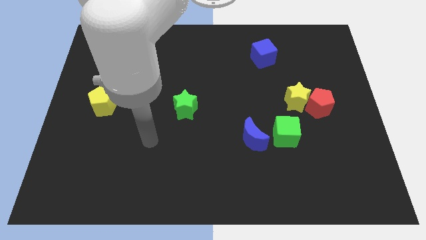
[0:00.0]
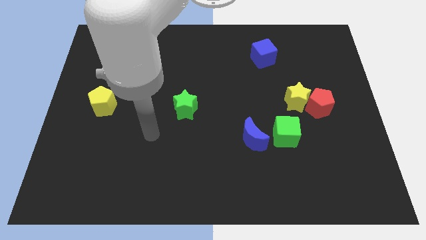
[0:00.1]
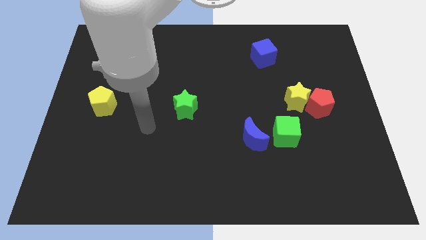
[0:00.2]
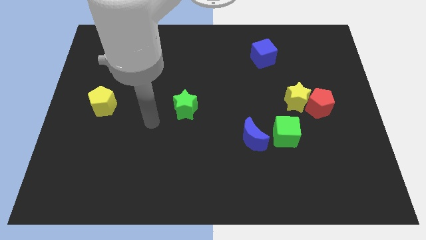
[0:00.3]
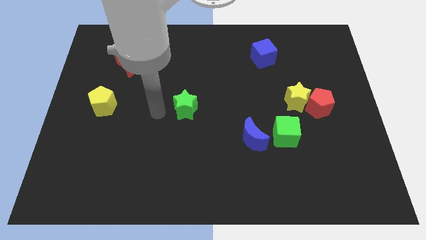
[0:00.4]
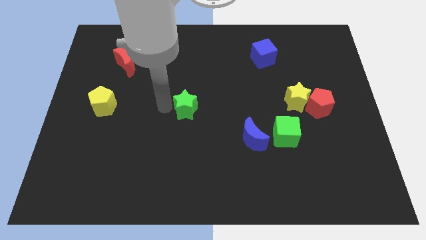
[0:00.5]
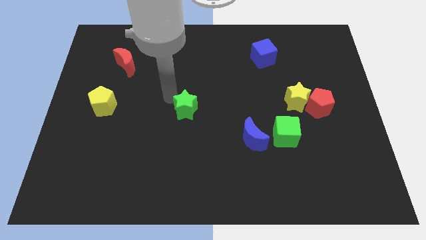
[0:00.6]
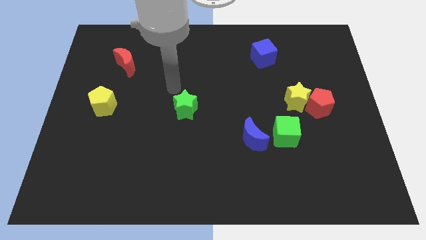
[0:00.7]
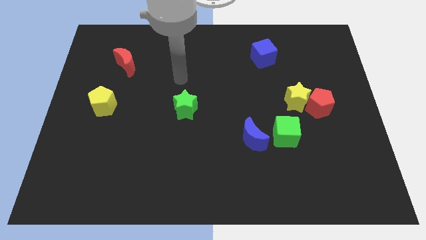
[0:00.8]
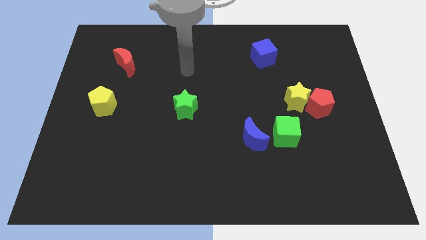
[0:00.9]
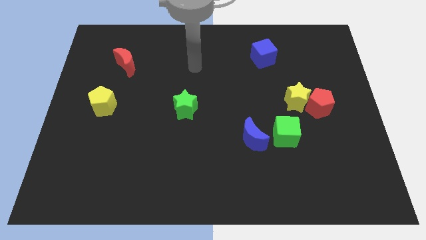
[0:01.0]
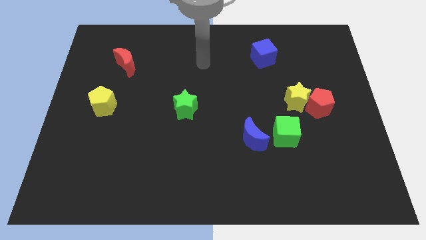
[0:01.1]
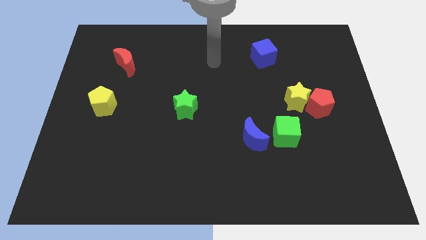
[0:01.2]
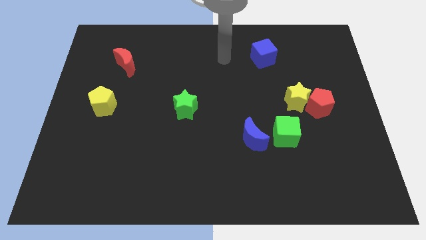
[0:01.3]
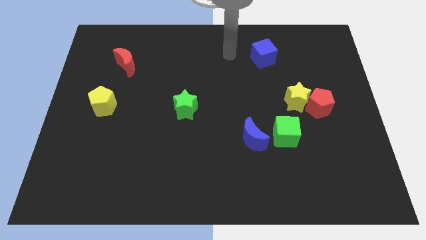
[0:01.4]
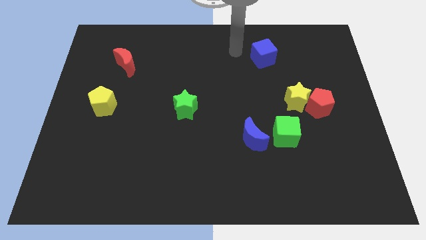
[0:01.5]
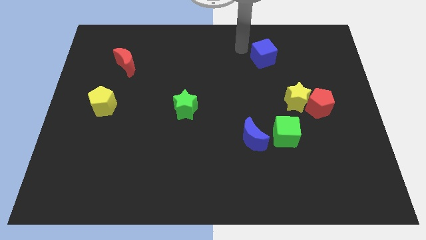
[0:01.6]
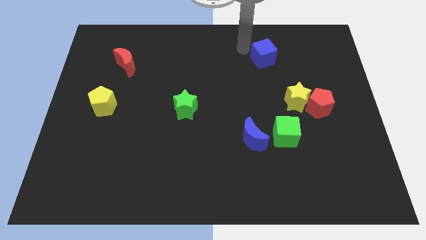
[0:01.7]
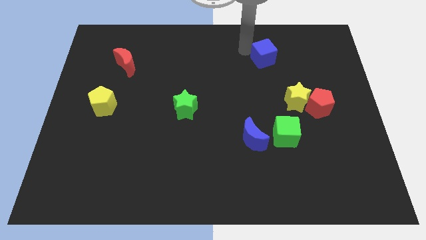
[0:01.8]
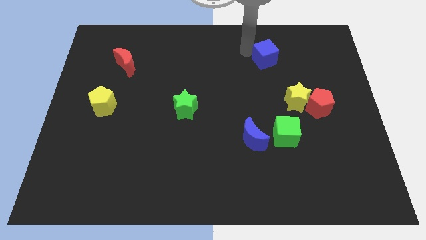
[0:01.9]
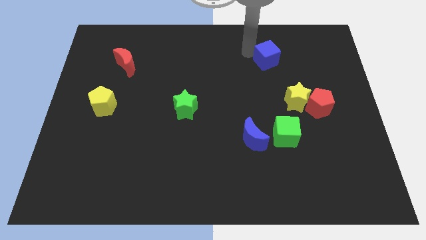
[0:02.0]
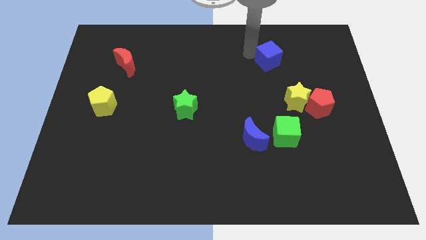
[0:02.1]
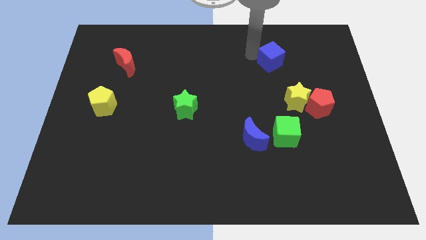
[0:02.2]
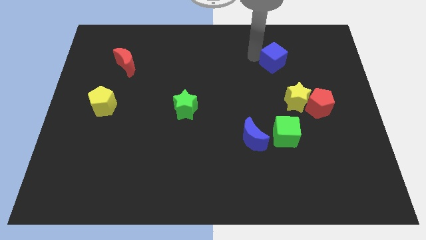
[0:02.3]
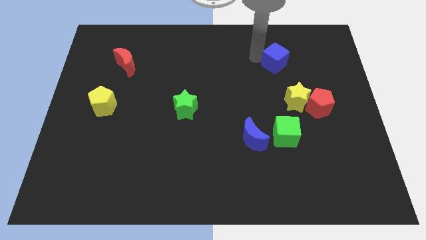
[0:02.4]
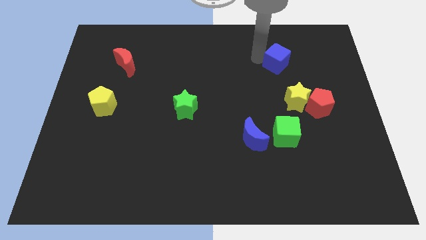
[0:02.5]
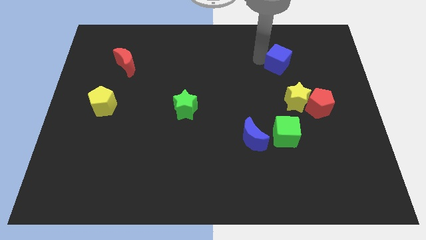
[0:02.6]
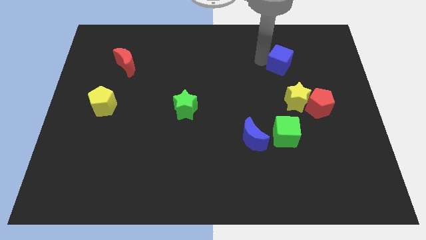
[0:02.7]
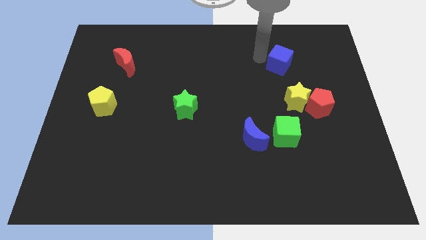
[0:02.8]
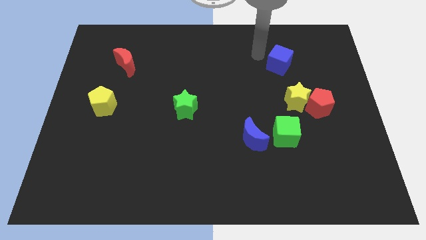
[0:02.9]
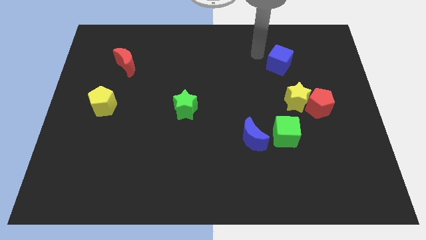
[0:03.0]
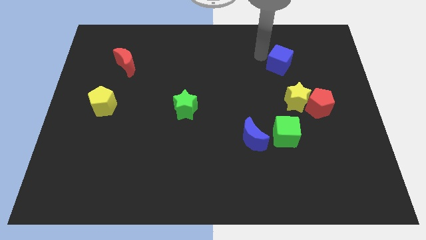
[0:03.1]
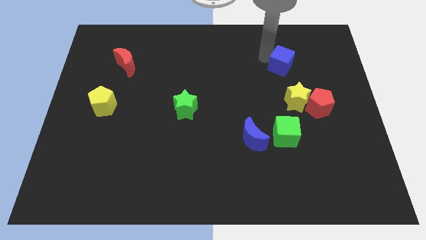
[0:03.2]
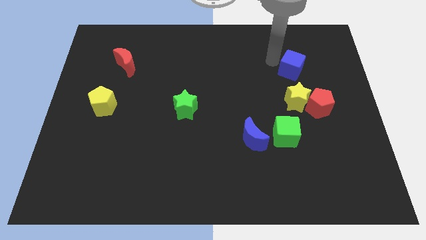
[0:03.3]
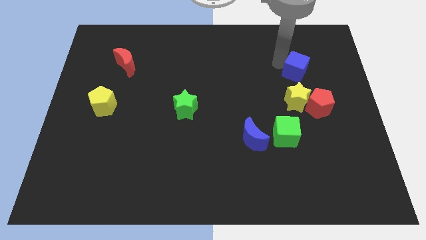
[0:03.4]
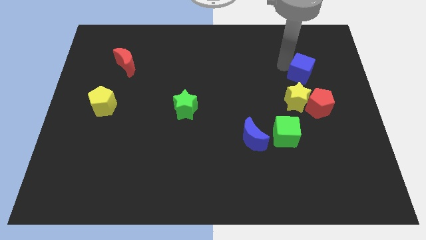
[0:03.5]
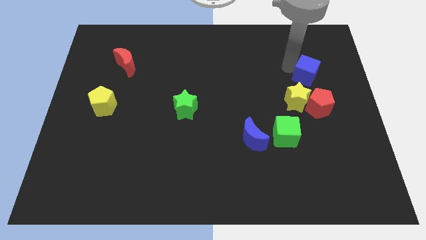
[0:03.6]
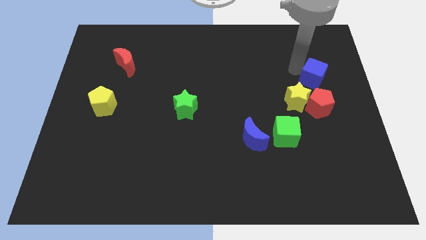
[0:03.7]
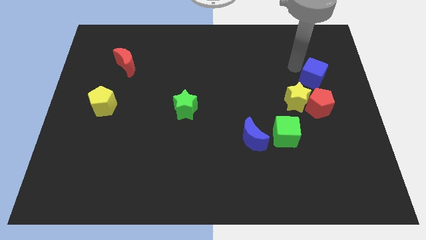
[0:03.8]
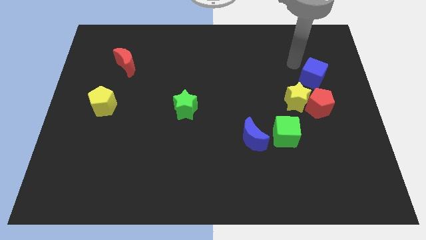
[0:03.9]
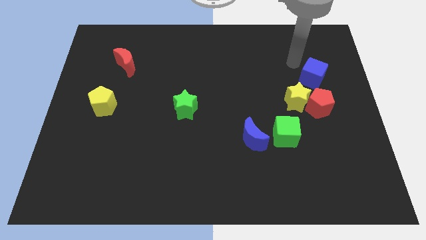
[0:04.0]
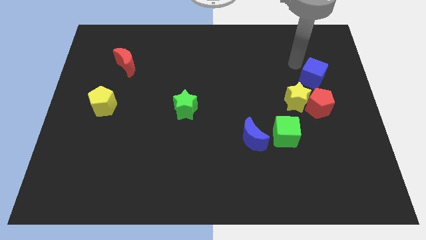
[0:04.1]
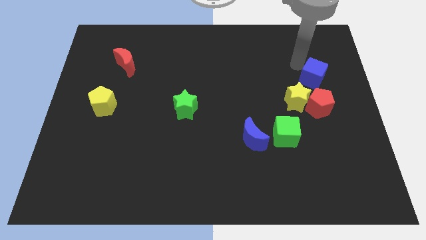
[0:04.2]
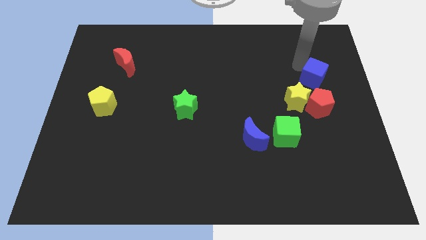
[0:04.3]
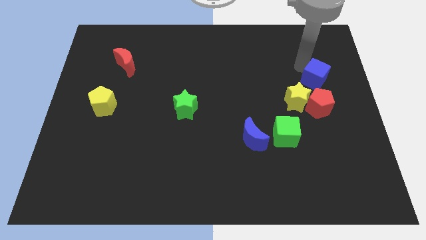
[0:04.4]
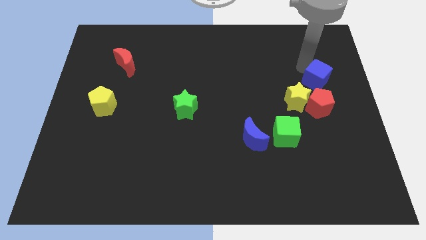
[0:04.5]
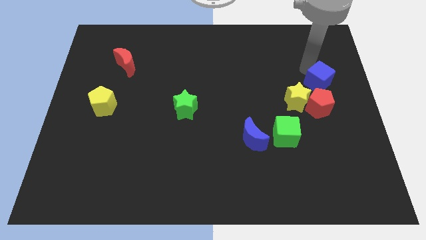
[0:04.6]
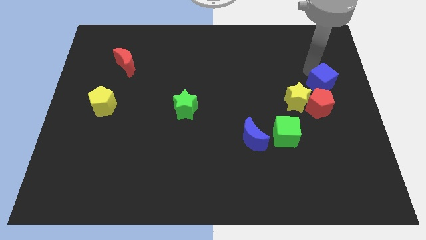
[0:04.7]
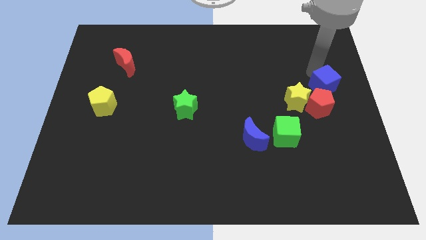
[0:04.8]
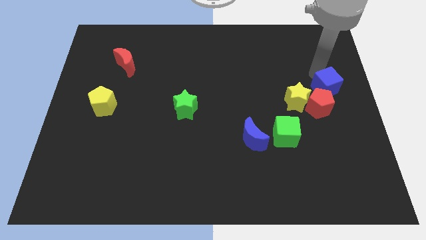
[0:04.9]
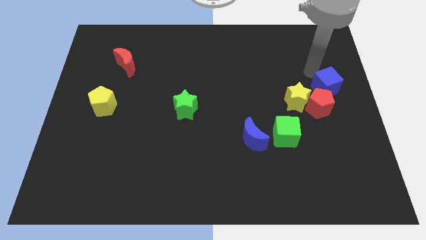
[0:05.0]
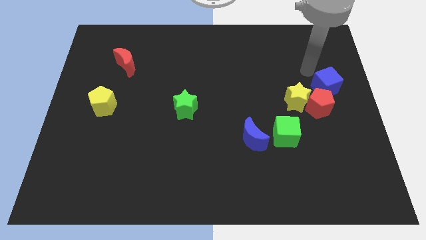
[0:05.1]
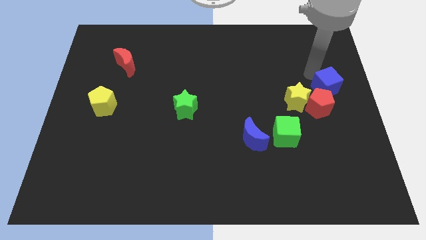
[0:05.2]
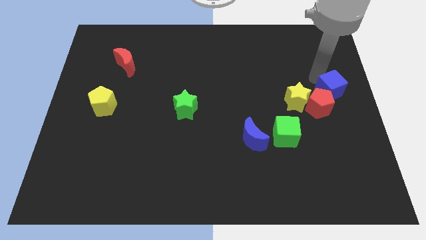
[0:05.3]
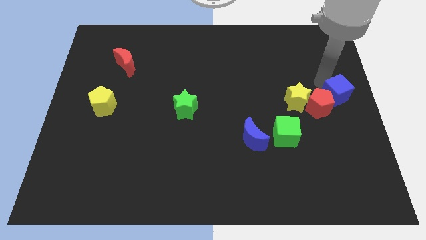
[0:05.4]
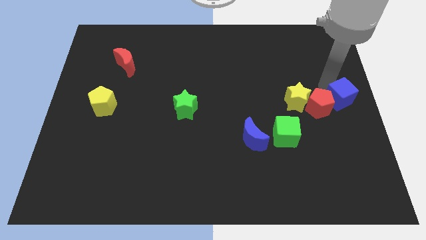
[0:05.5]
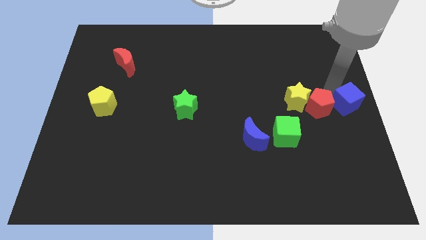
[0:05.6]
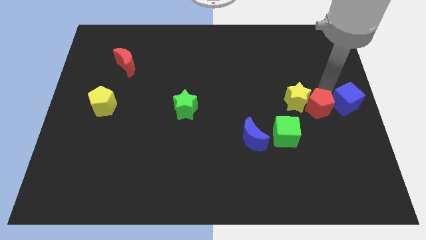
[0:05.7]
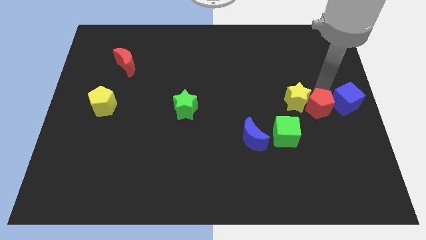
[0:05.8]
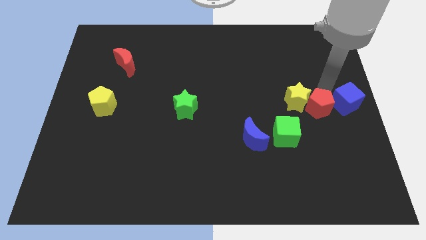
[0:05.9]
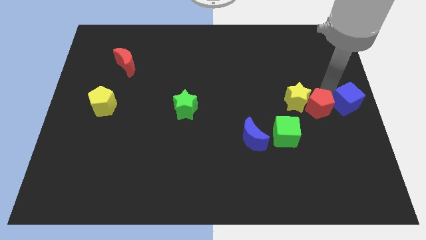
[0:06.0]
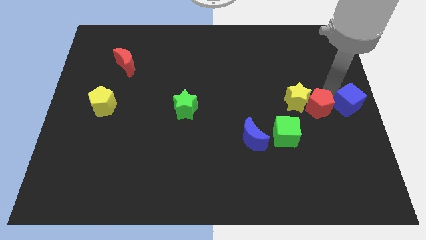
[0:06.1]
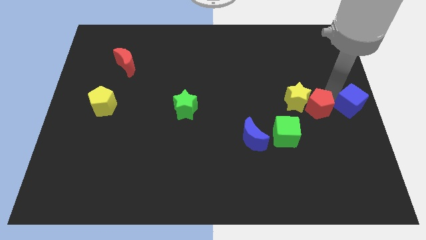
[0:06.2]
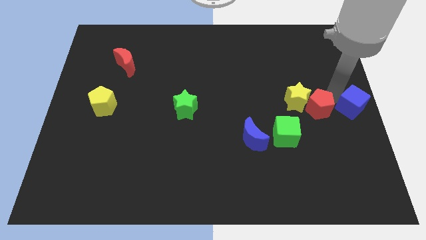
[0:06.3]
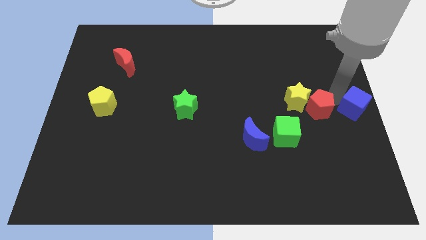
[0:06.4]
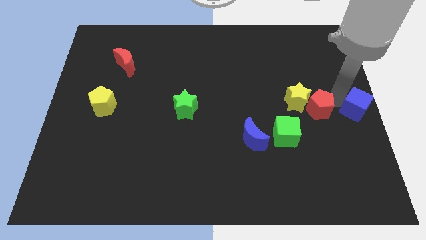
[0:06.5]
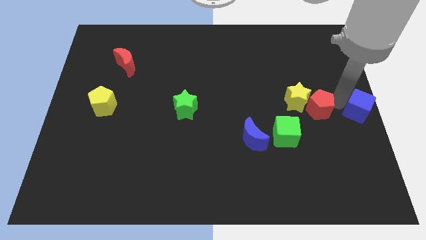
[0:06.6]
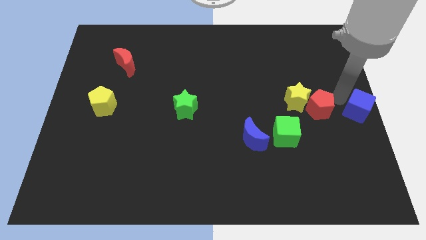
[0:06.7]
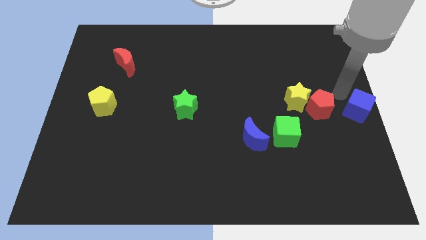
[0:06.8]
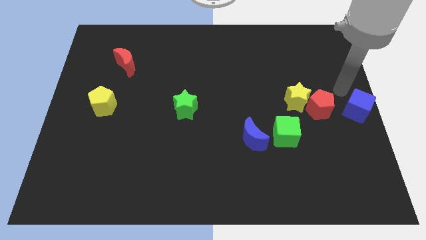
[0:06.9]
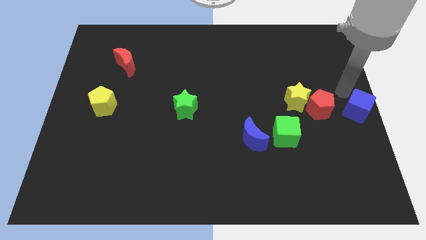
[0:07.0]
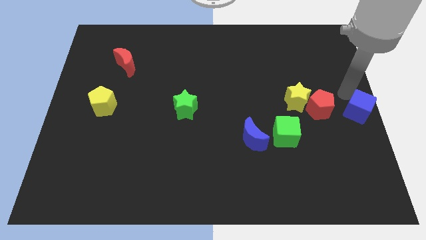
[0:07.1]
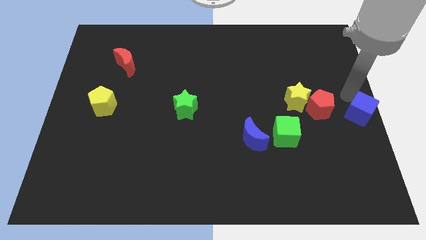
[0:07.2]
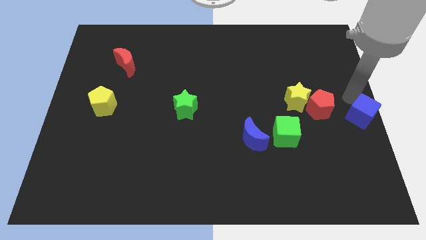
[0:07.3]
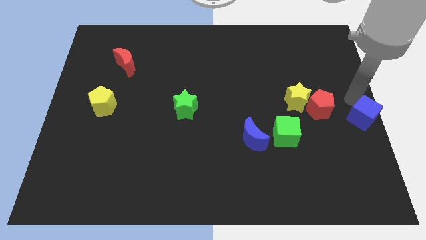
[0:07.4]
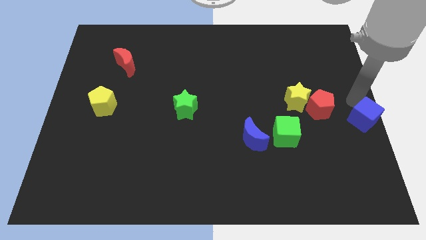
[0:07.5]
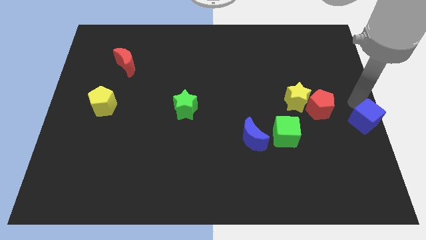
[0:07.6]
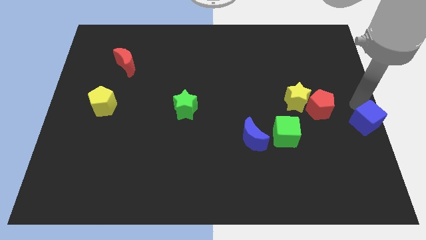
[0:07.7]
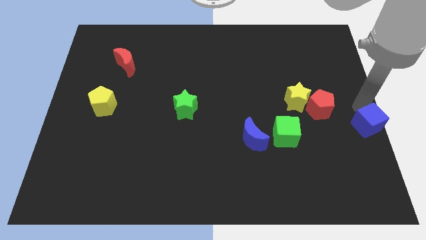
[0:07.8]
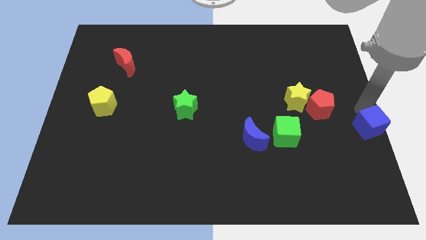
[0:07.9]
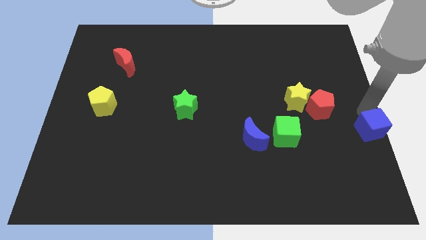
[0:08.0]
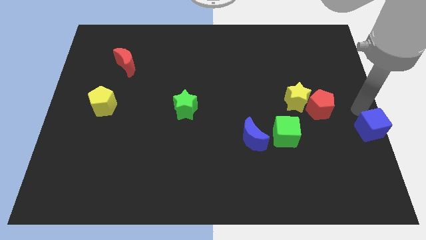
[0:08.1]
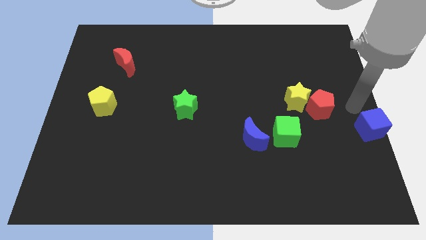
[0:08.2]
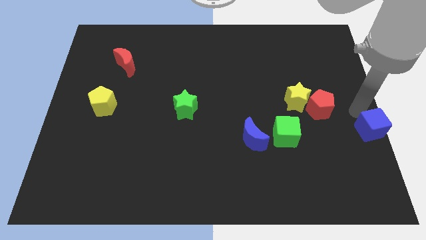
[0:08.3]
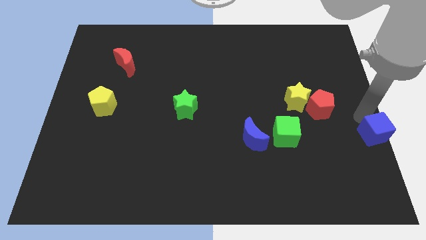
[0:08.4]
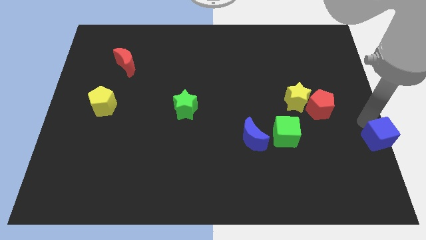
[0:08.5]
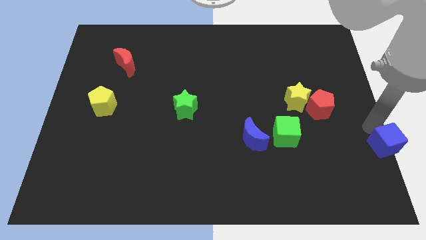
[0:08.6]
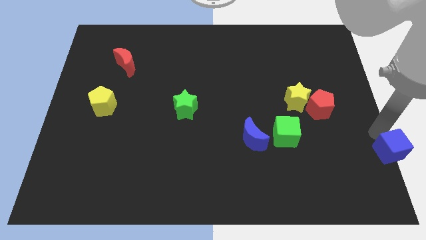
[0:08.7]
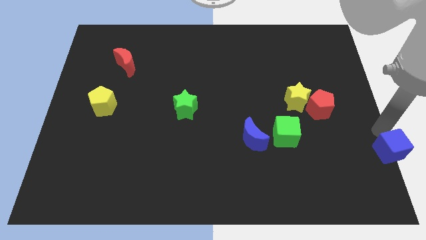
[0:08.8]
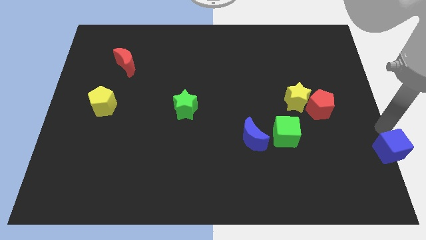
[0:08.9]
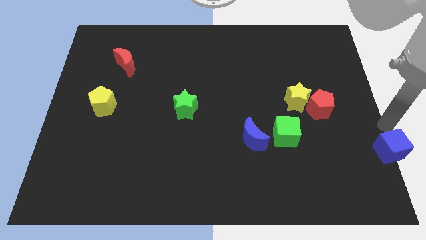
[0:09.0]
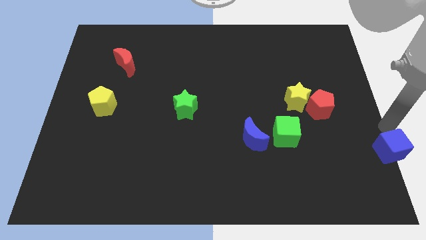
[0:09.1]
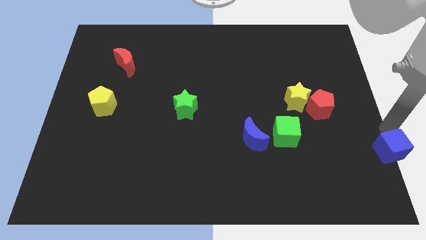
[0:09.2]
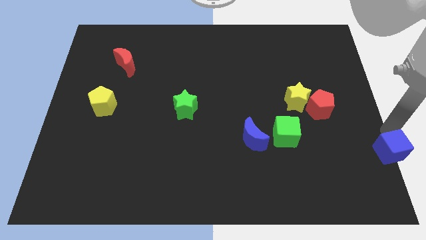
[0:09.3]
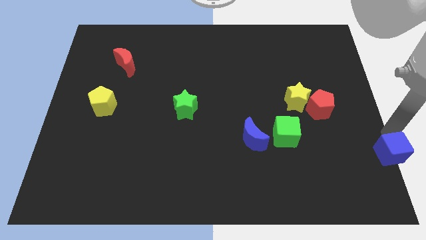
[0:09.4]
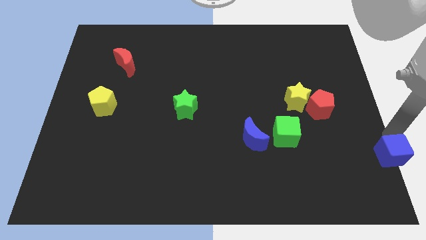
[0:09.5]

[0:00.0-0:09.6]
move the blue cube to the lower right corner
